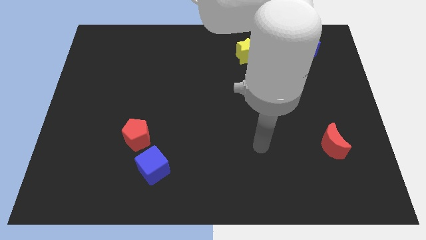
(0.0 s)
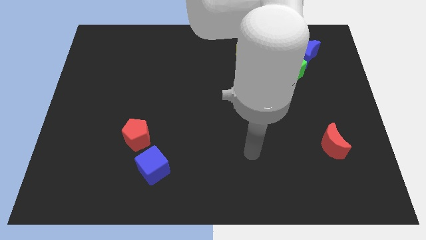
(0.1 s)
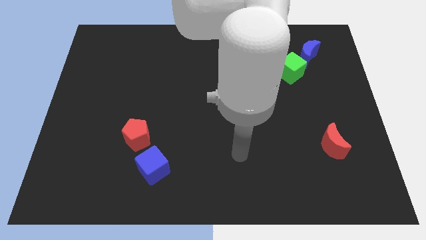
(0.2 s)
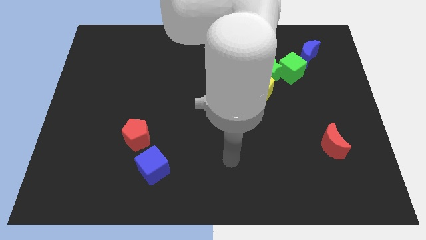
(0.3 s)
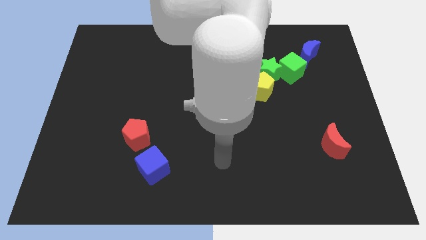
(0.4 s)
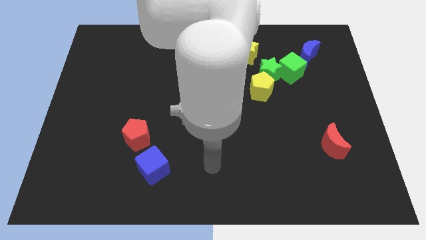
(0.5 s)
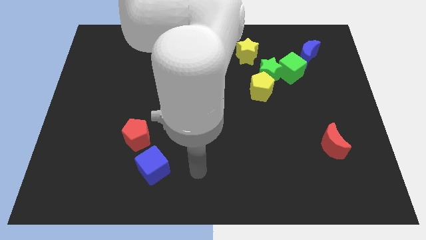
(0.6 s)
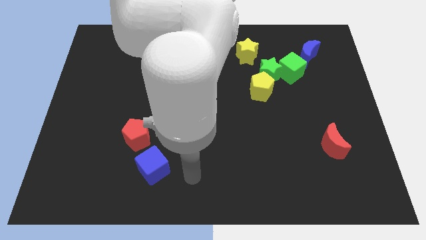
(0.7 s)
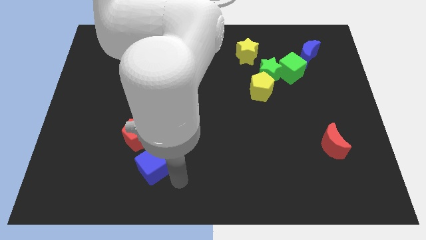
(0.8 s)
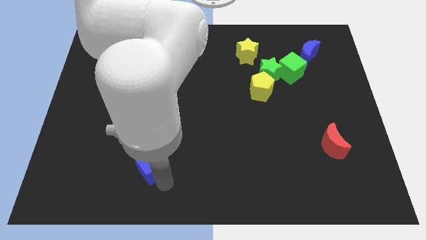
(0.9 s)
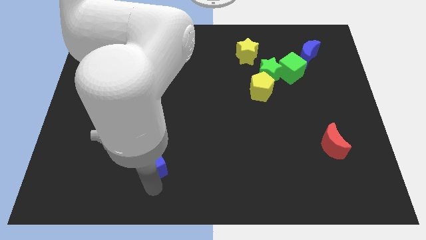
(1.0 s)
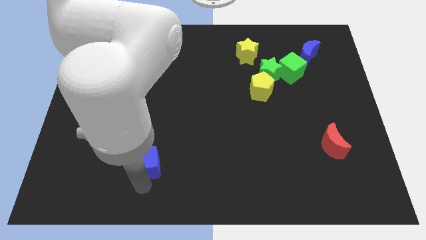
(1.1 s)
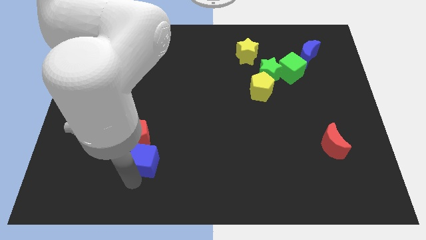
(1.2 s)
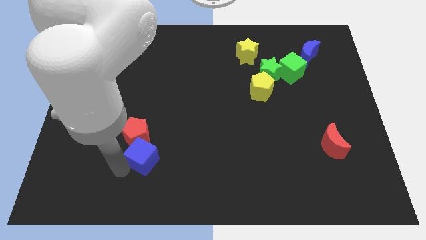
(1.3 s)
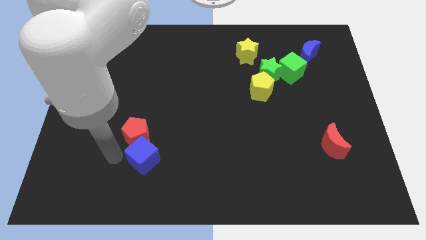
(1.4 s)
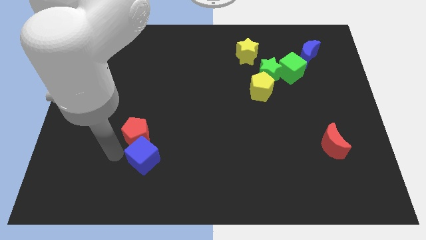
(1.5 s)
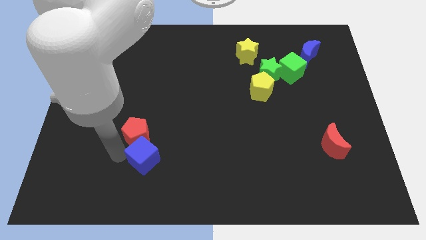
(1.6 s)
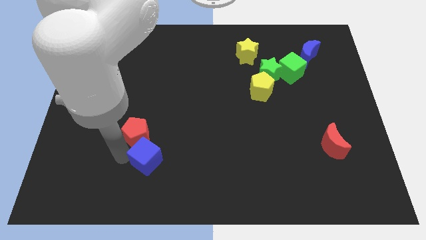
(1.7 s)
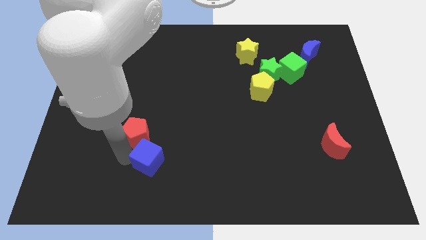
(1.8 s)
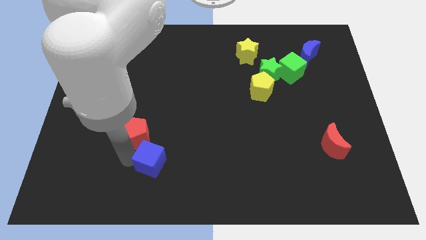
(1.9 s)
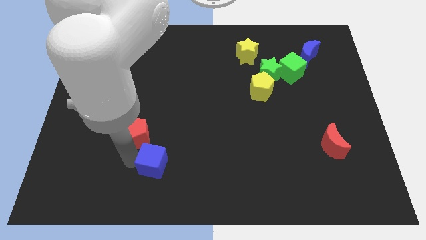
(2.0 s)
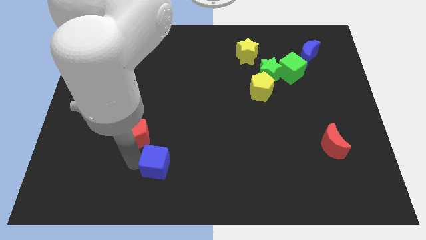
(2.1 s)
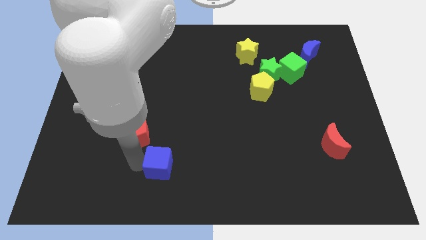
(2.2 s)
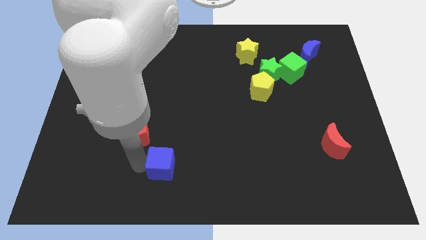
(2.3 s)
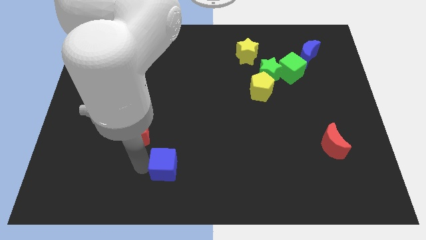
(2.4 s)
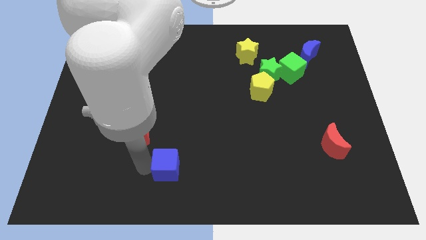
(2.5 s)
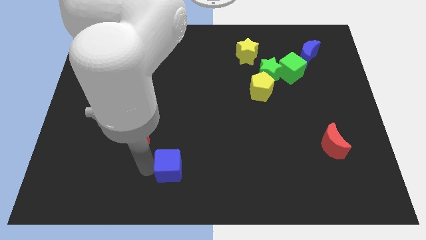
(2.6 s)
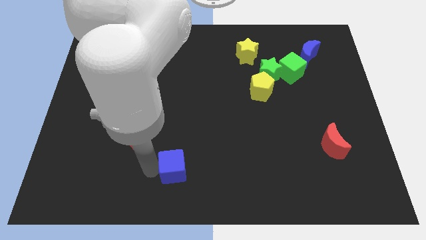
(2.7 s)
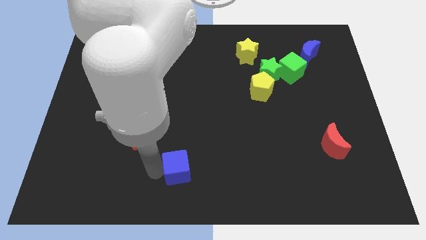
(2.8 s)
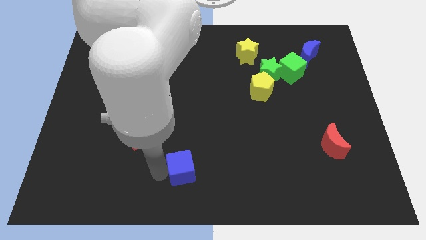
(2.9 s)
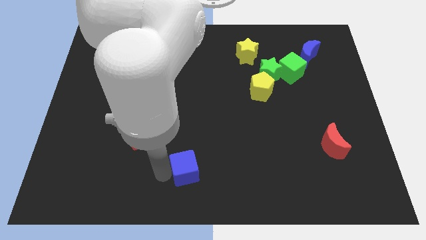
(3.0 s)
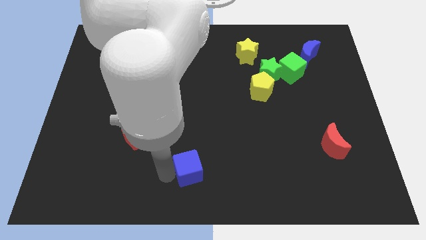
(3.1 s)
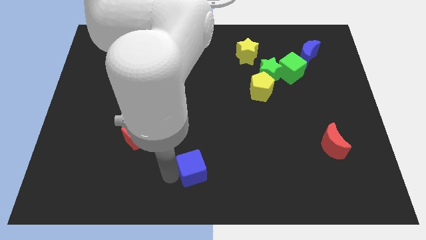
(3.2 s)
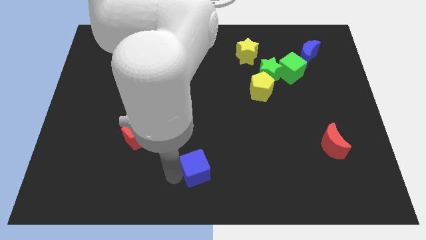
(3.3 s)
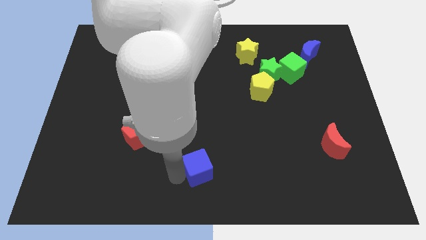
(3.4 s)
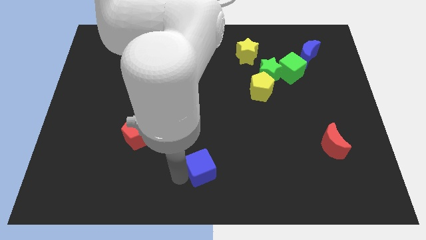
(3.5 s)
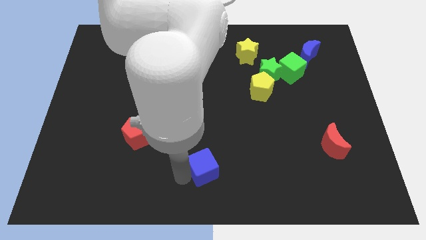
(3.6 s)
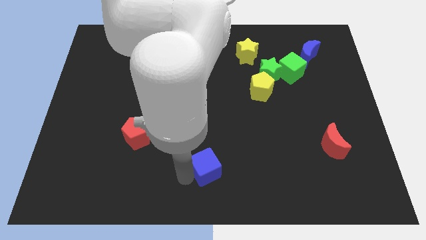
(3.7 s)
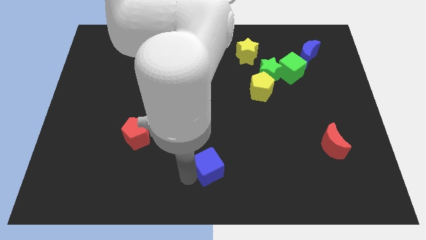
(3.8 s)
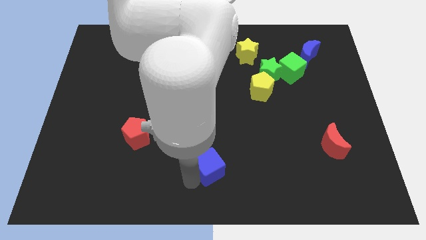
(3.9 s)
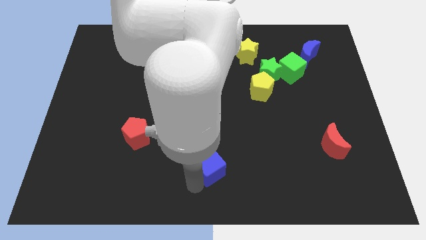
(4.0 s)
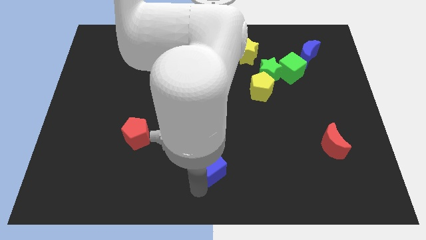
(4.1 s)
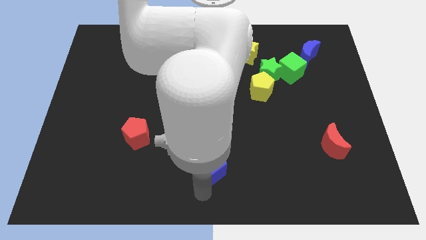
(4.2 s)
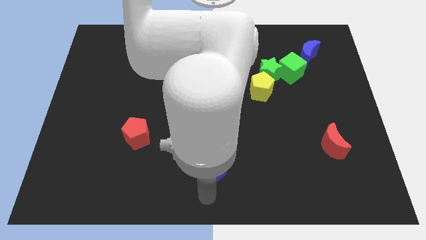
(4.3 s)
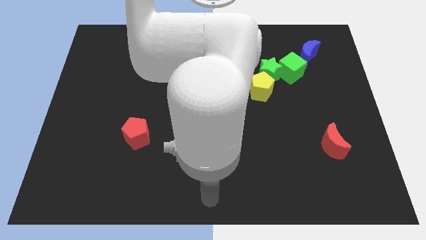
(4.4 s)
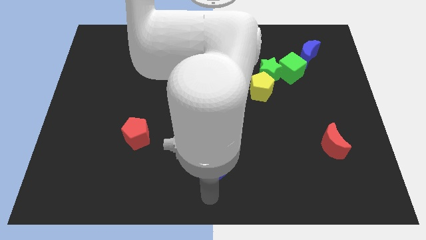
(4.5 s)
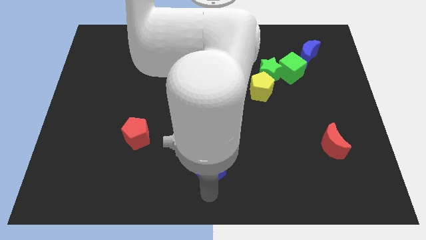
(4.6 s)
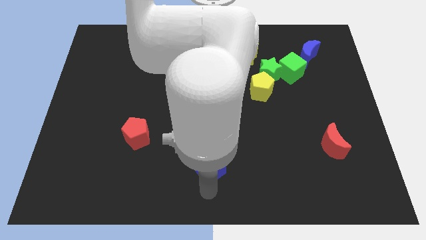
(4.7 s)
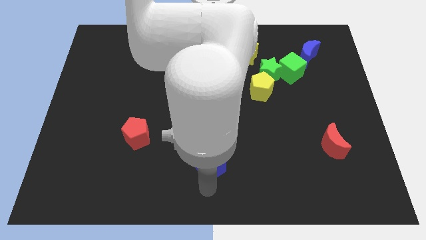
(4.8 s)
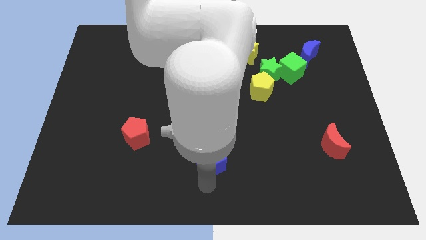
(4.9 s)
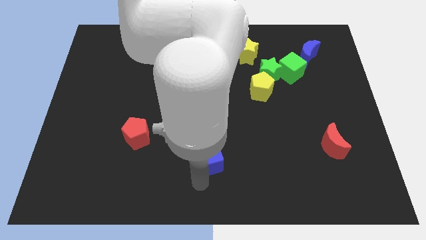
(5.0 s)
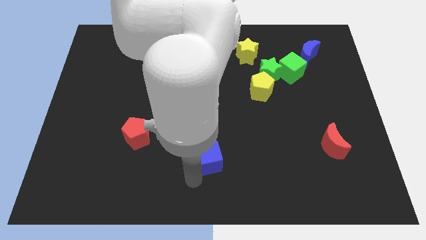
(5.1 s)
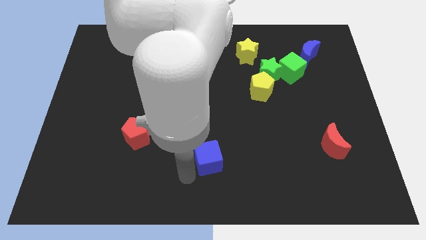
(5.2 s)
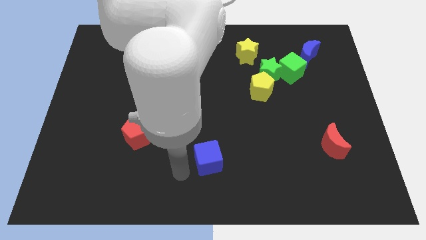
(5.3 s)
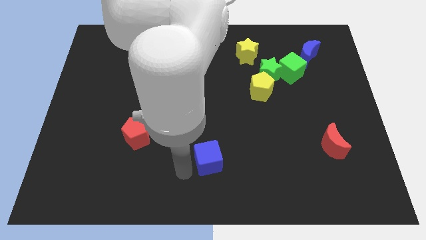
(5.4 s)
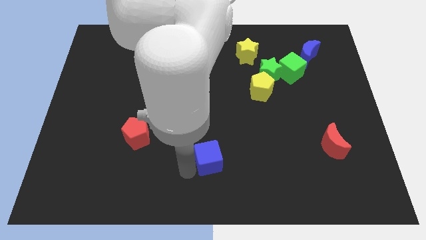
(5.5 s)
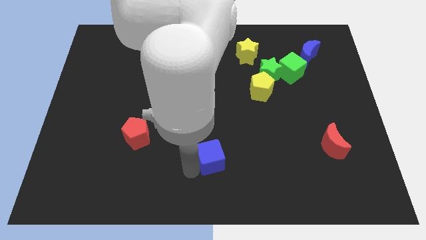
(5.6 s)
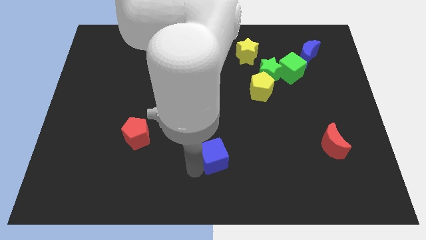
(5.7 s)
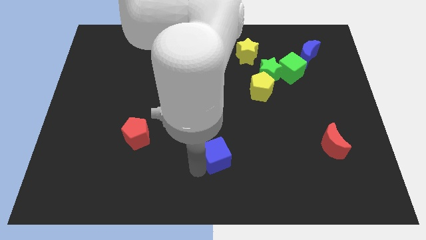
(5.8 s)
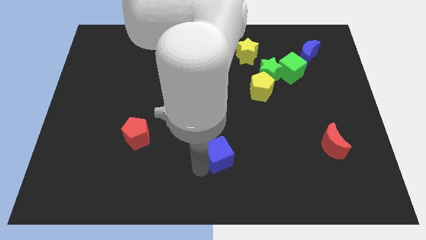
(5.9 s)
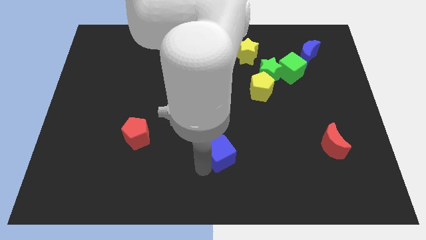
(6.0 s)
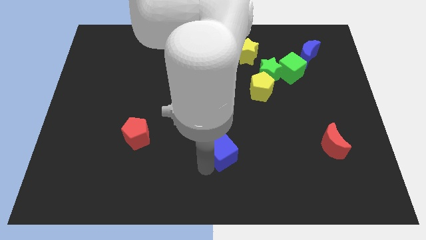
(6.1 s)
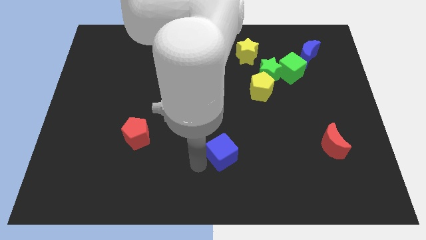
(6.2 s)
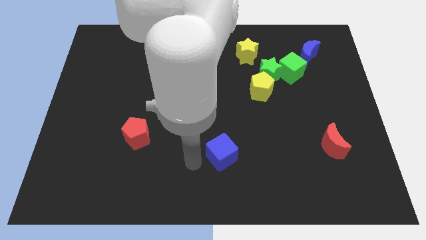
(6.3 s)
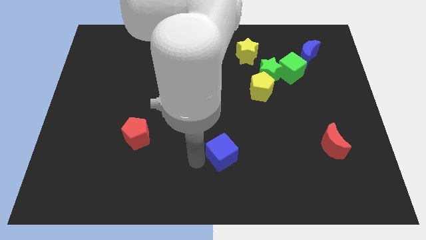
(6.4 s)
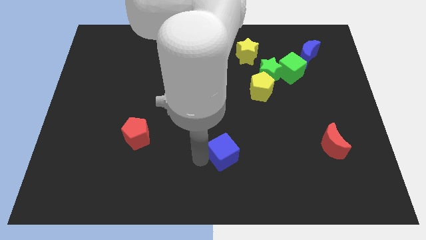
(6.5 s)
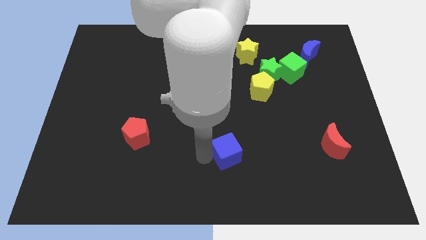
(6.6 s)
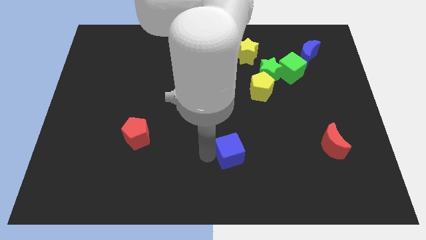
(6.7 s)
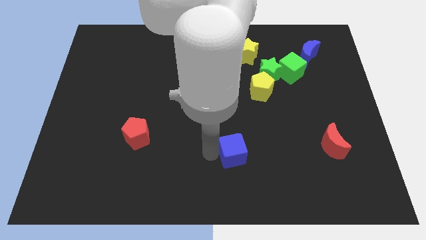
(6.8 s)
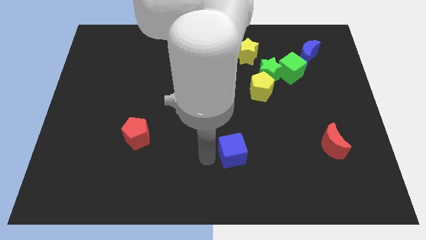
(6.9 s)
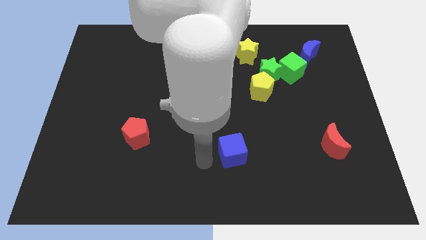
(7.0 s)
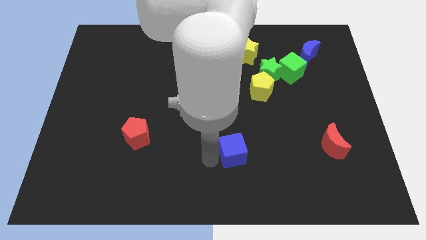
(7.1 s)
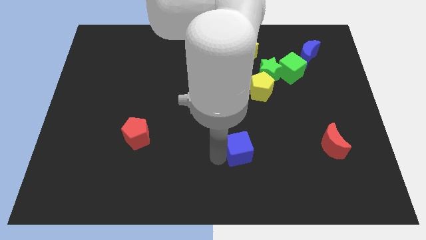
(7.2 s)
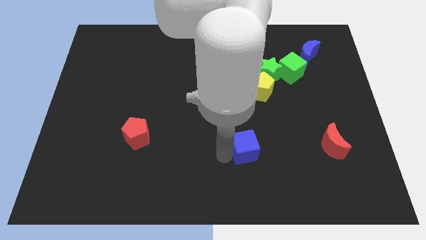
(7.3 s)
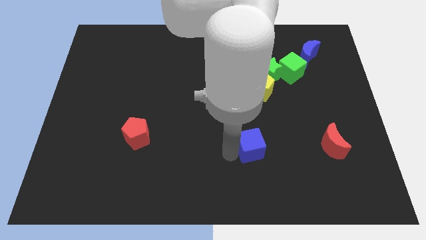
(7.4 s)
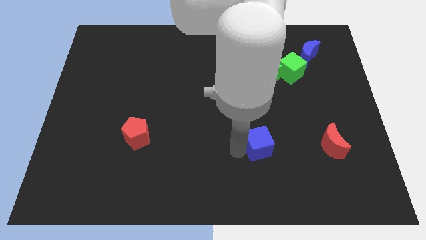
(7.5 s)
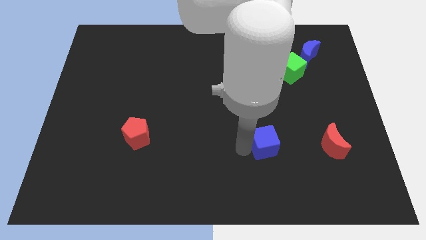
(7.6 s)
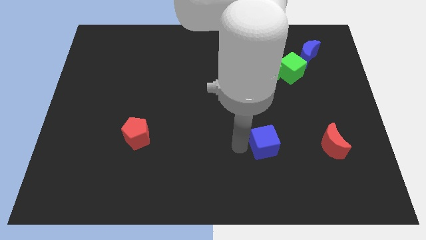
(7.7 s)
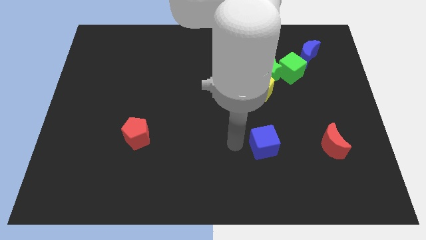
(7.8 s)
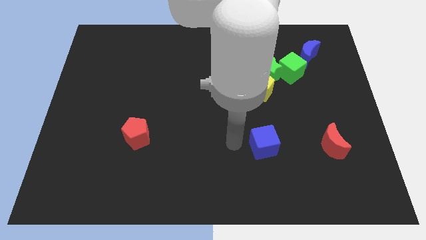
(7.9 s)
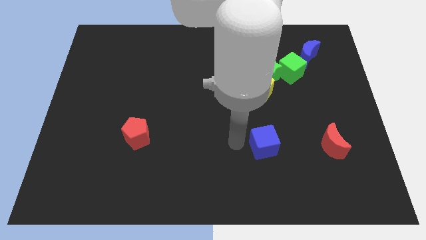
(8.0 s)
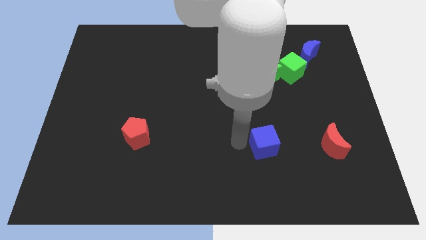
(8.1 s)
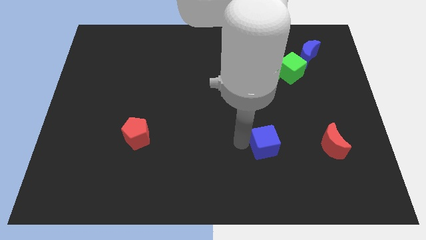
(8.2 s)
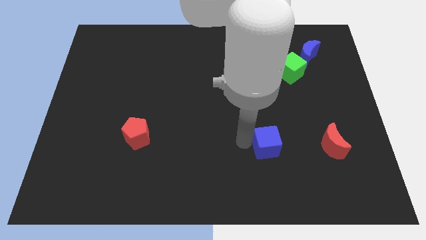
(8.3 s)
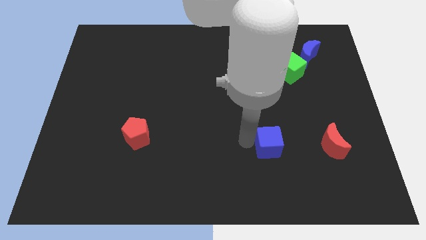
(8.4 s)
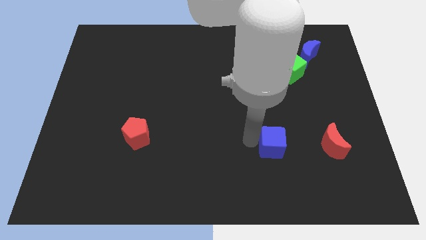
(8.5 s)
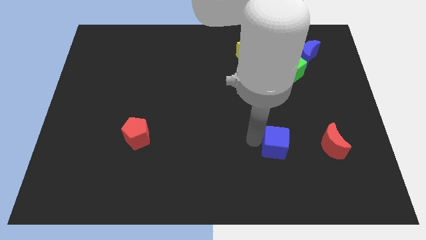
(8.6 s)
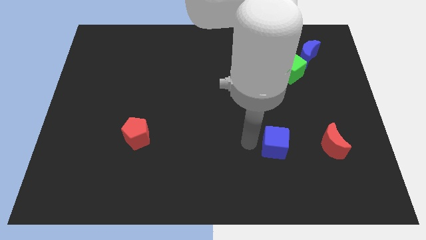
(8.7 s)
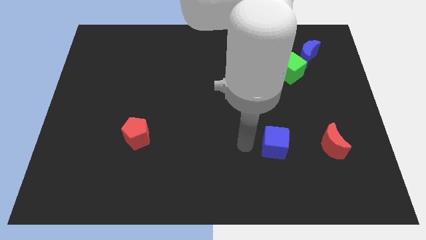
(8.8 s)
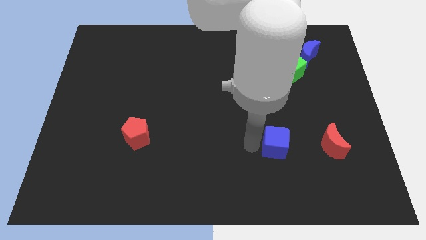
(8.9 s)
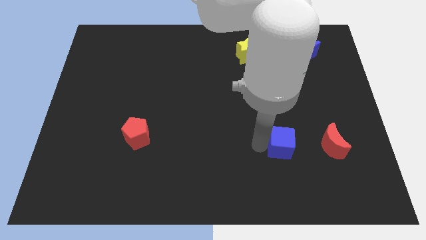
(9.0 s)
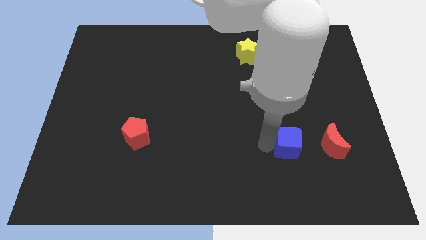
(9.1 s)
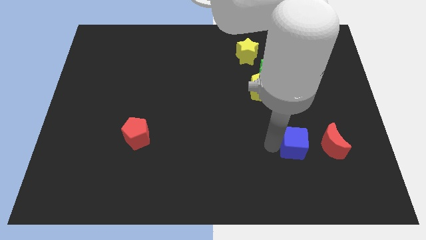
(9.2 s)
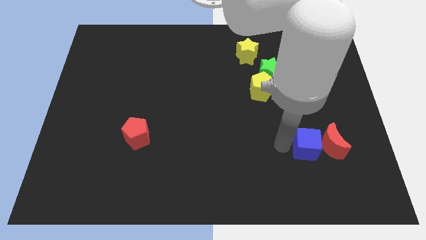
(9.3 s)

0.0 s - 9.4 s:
put the blue cube close to the red moon
